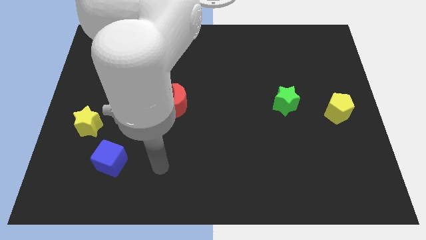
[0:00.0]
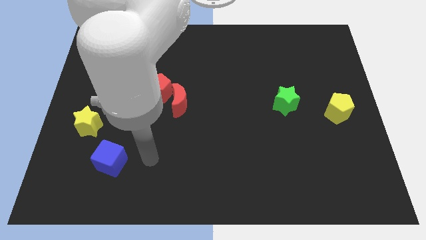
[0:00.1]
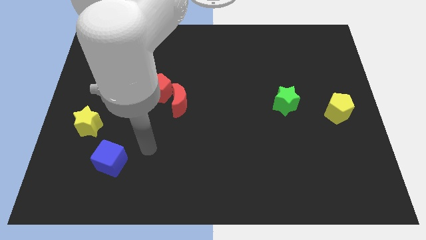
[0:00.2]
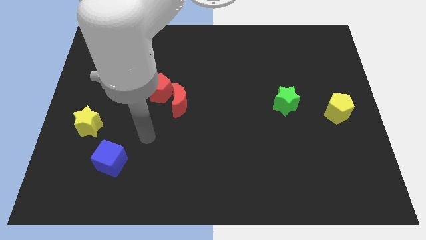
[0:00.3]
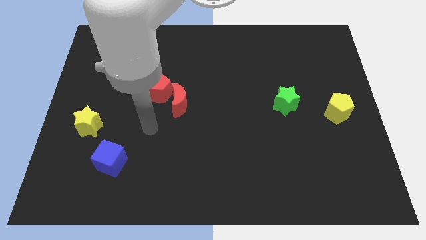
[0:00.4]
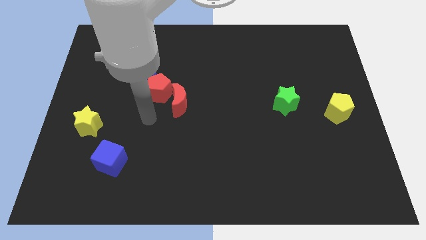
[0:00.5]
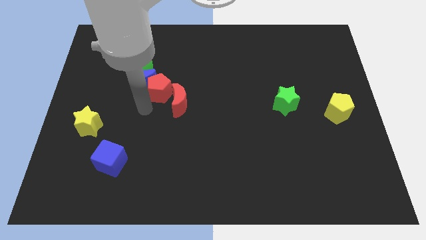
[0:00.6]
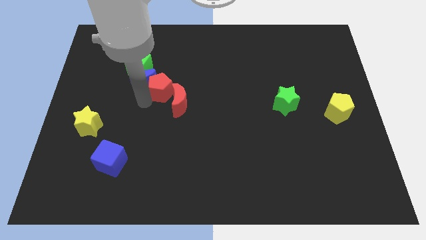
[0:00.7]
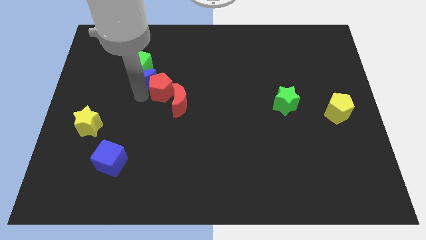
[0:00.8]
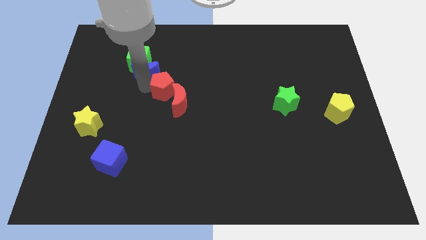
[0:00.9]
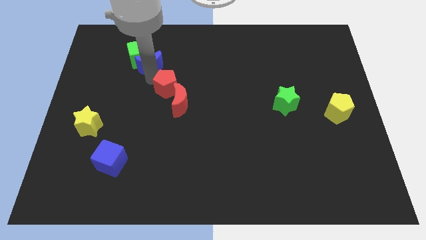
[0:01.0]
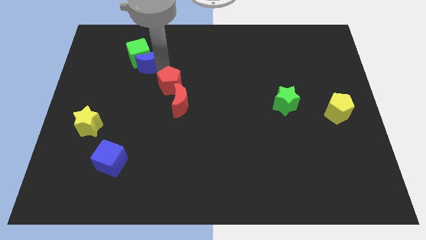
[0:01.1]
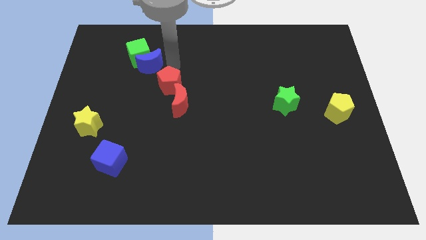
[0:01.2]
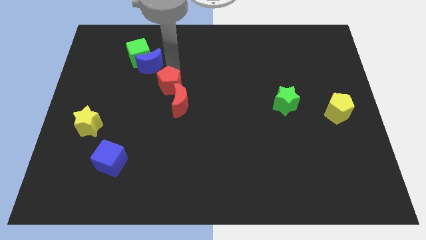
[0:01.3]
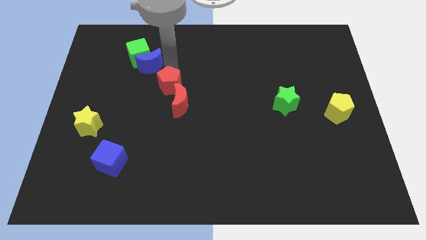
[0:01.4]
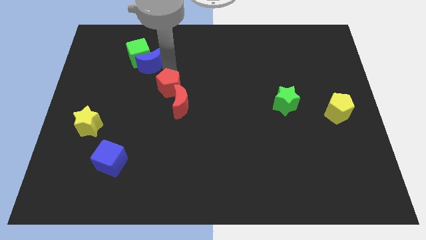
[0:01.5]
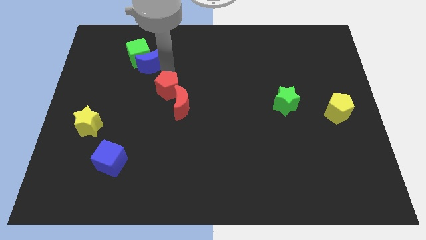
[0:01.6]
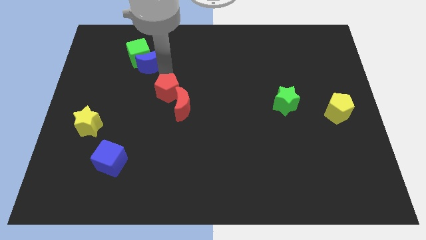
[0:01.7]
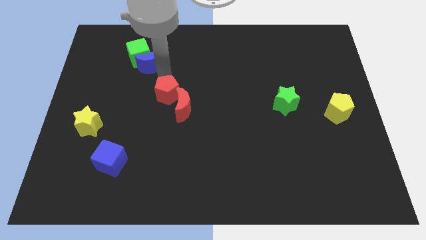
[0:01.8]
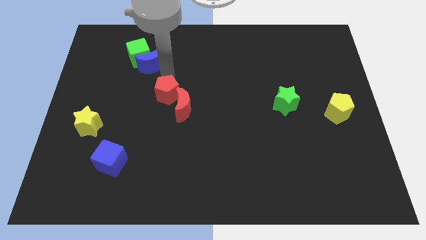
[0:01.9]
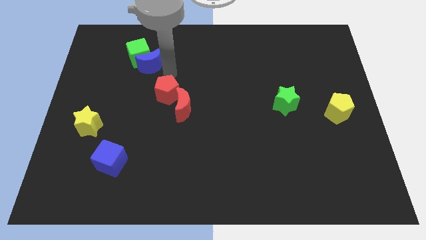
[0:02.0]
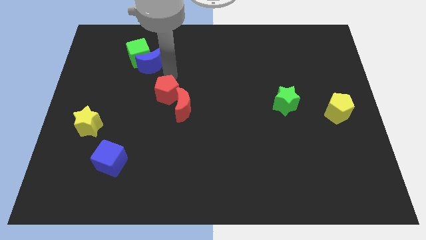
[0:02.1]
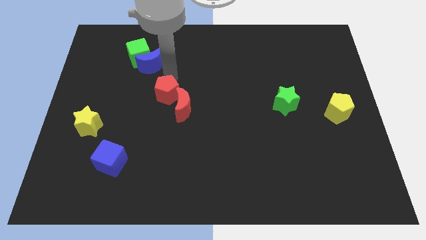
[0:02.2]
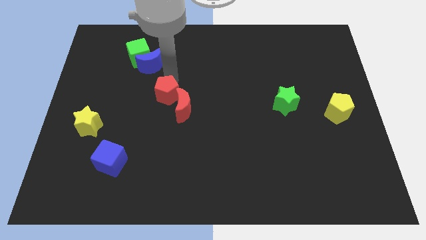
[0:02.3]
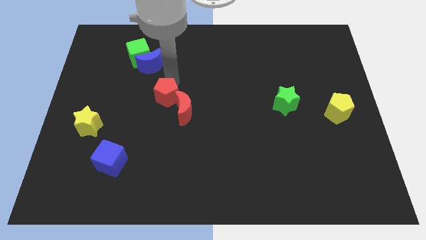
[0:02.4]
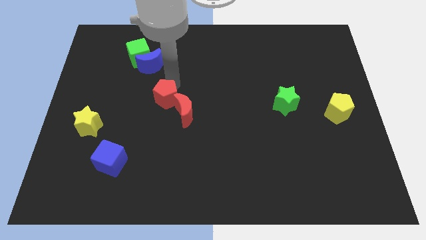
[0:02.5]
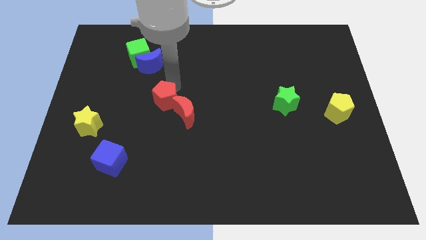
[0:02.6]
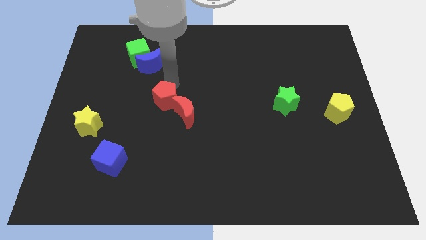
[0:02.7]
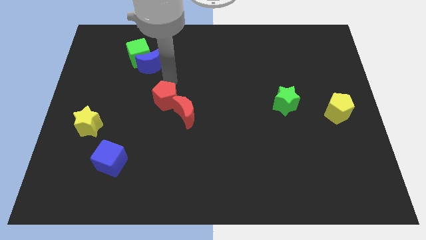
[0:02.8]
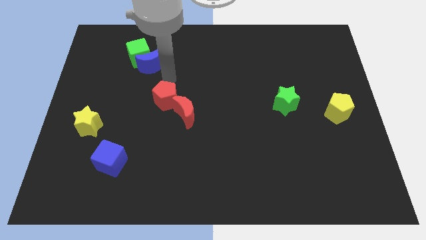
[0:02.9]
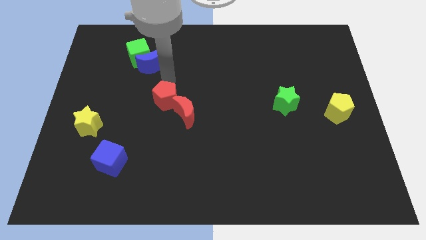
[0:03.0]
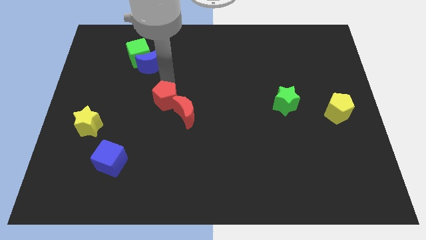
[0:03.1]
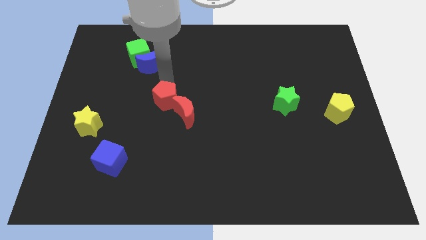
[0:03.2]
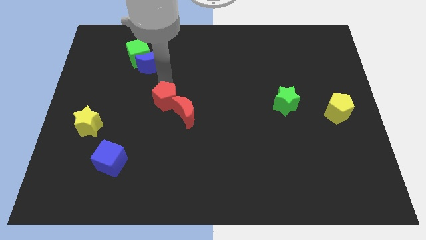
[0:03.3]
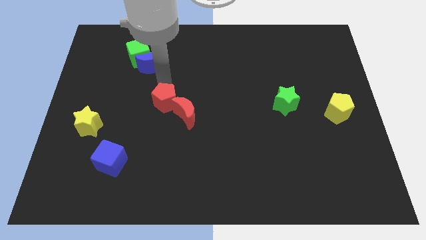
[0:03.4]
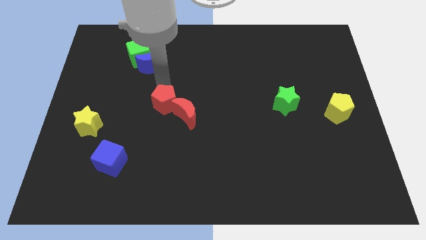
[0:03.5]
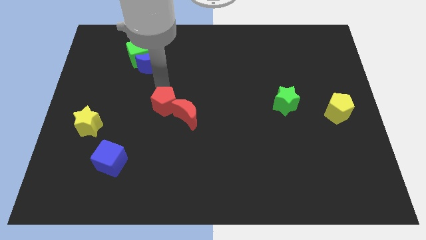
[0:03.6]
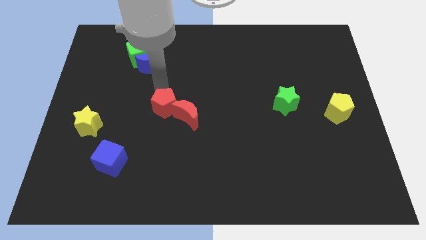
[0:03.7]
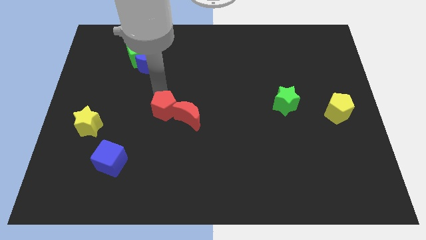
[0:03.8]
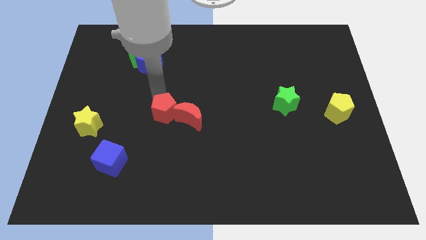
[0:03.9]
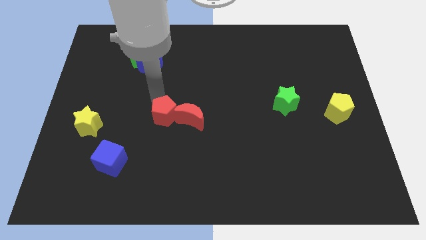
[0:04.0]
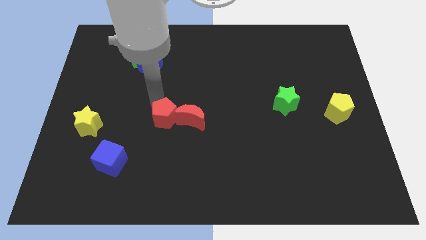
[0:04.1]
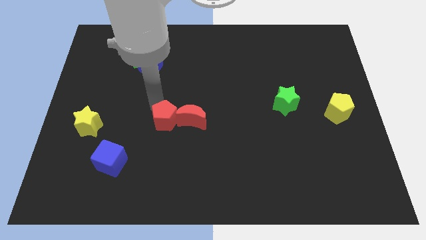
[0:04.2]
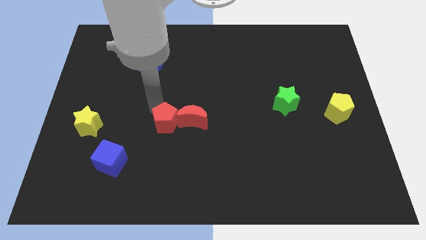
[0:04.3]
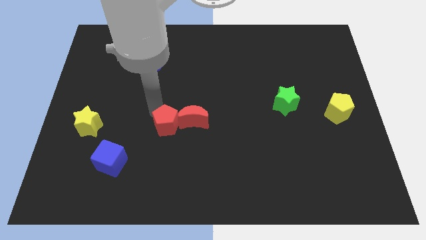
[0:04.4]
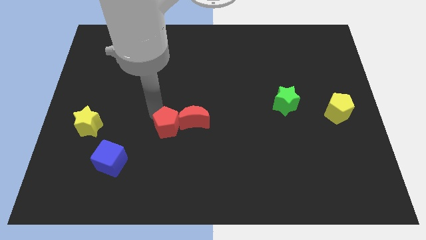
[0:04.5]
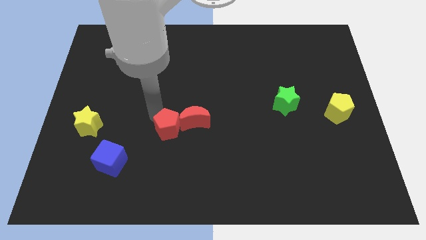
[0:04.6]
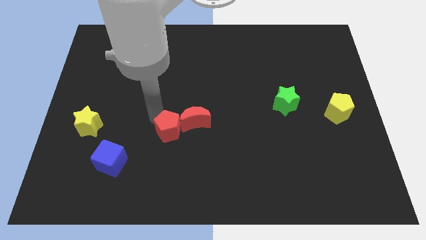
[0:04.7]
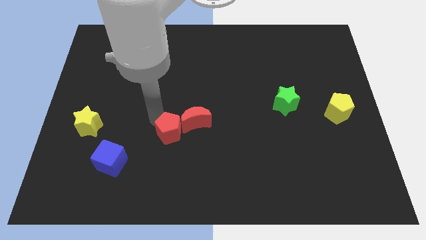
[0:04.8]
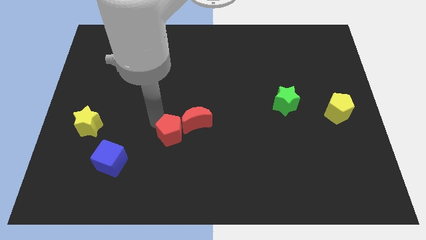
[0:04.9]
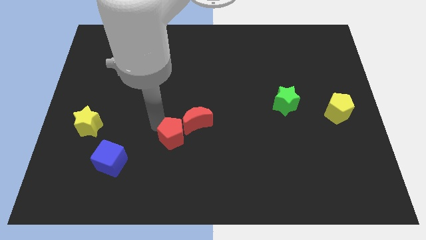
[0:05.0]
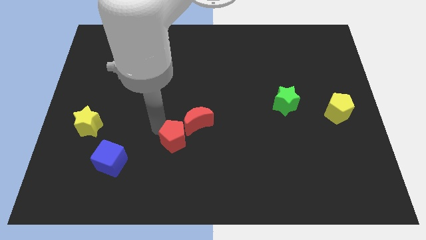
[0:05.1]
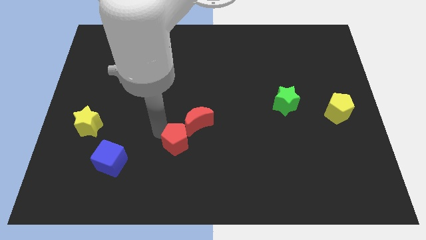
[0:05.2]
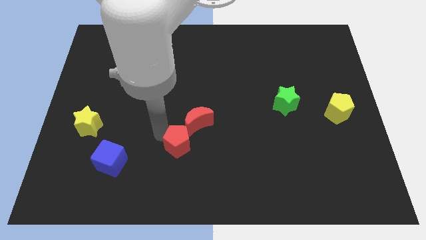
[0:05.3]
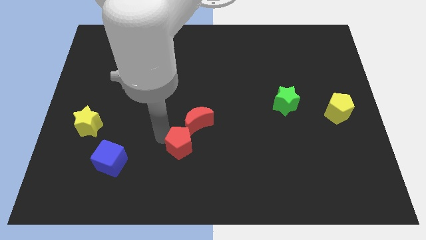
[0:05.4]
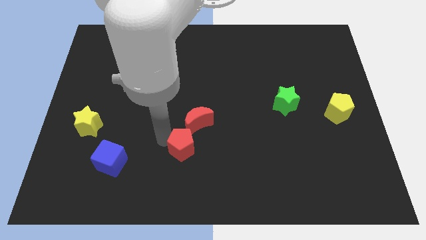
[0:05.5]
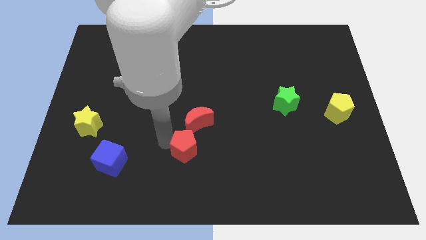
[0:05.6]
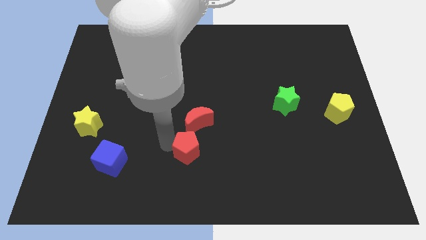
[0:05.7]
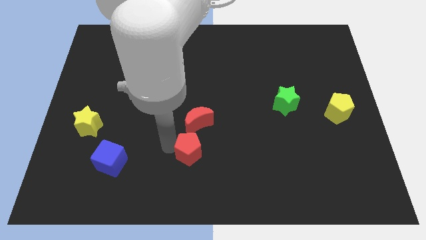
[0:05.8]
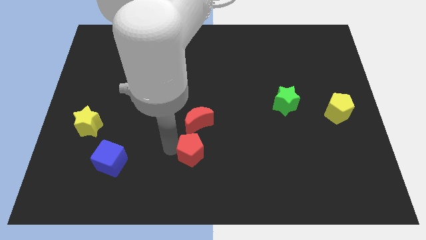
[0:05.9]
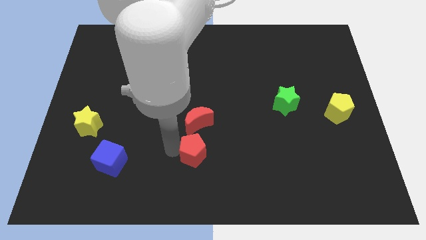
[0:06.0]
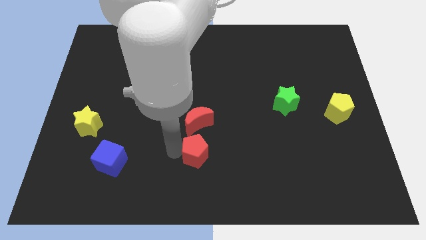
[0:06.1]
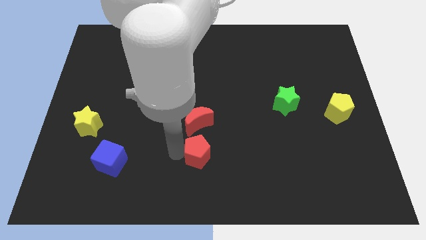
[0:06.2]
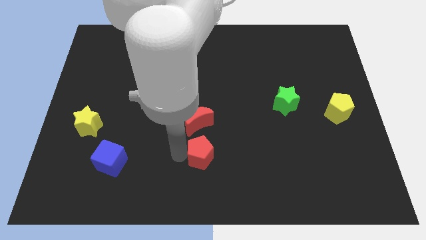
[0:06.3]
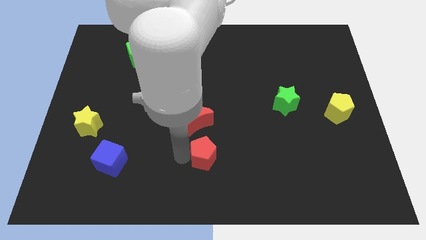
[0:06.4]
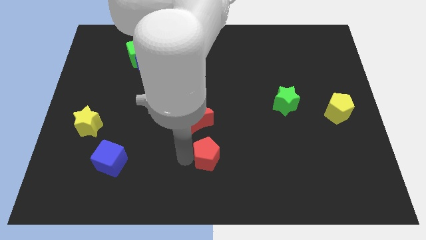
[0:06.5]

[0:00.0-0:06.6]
push the red pentagon down and then to the right

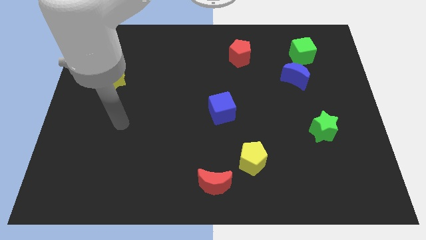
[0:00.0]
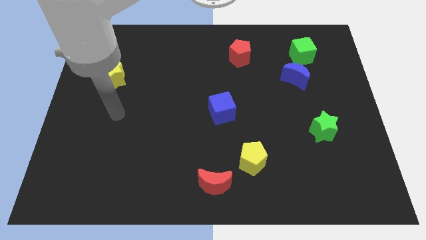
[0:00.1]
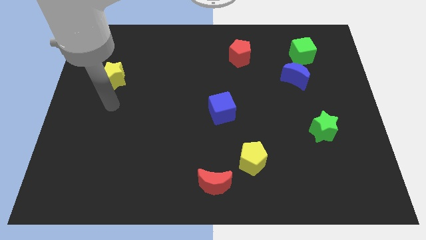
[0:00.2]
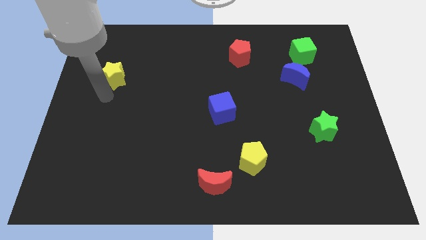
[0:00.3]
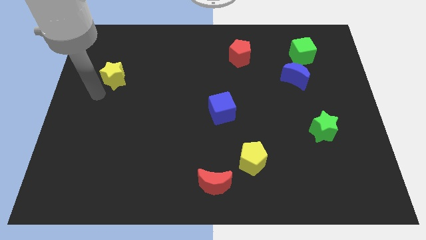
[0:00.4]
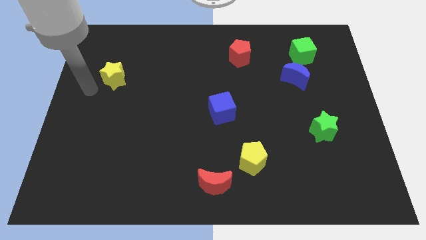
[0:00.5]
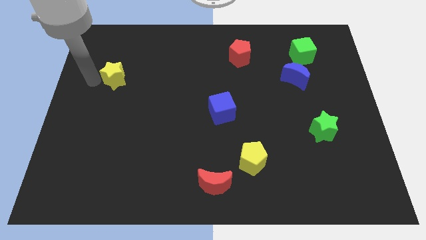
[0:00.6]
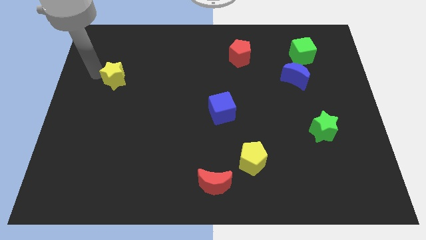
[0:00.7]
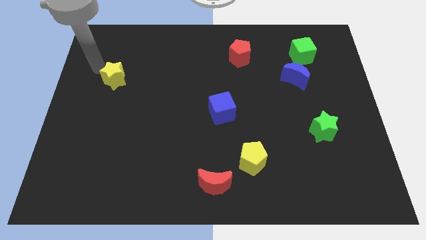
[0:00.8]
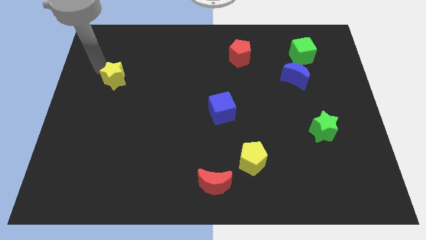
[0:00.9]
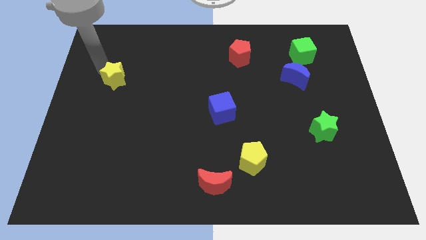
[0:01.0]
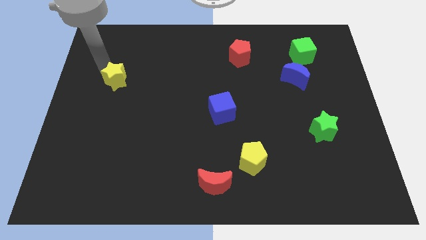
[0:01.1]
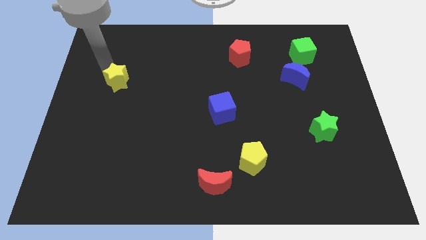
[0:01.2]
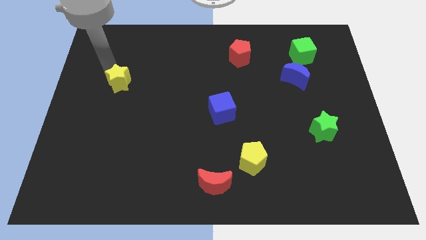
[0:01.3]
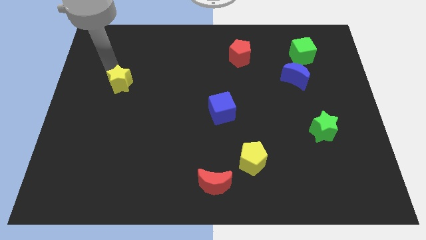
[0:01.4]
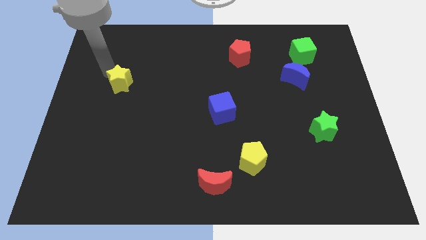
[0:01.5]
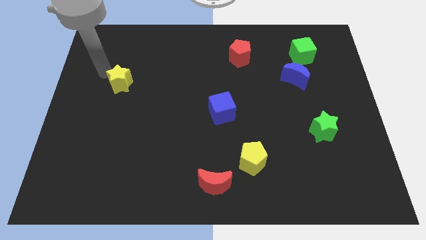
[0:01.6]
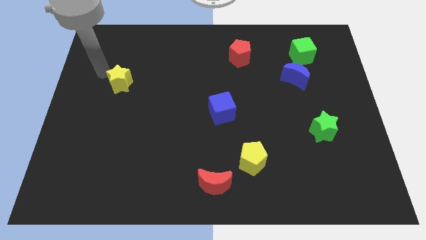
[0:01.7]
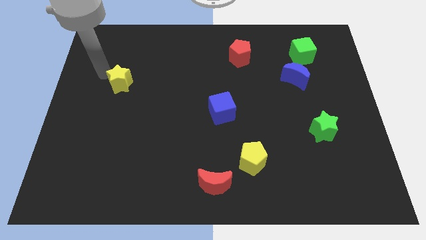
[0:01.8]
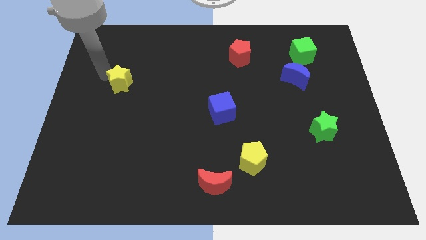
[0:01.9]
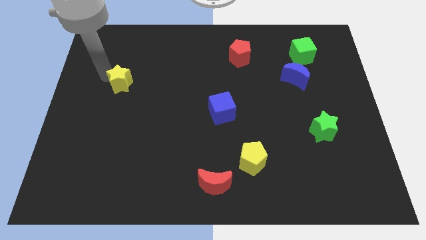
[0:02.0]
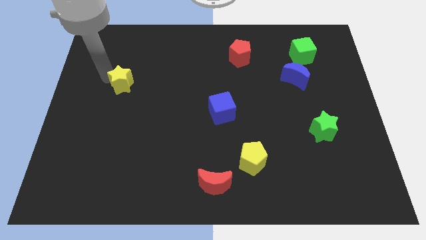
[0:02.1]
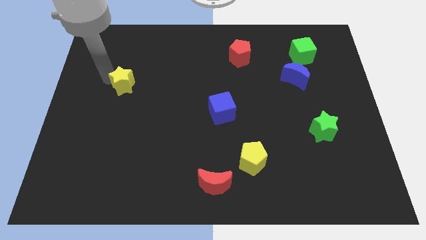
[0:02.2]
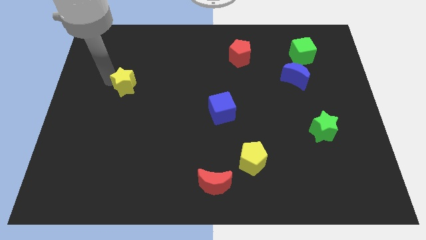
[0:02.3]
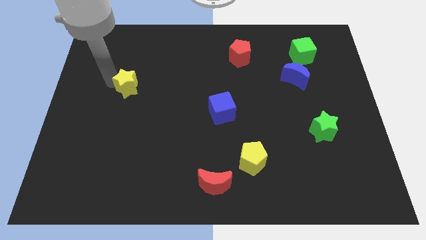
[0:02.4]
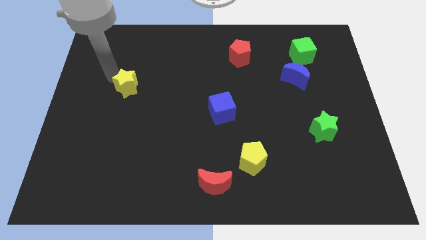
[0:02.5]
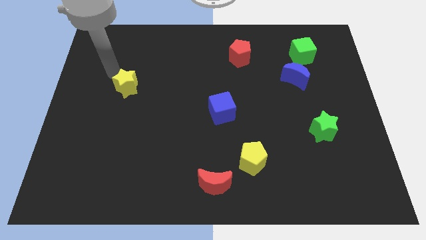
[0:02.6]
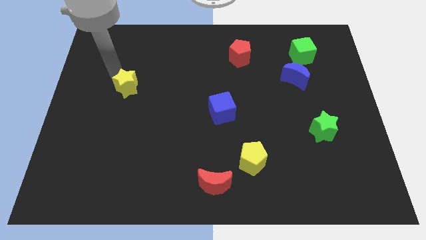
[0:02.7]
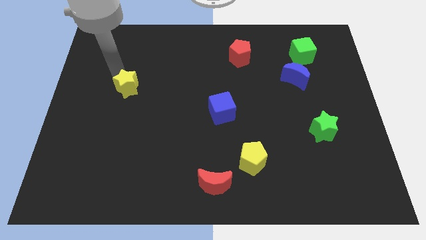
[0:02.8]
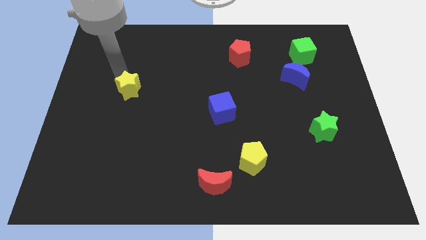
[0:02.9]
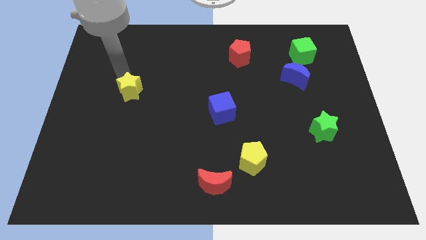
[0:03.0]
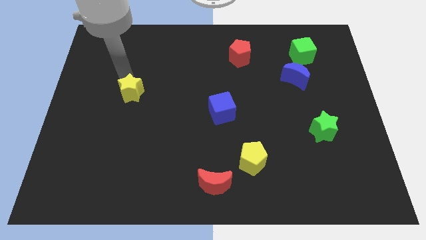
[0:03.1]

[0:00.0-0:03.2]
slightly move the yellow star downwards and right diagonally
